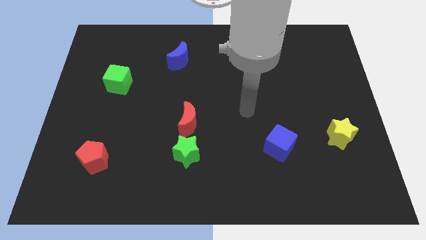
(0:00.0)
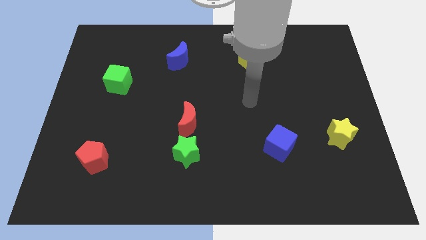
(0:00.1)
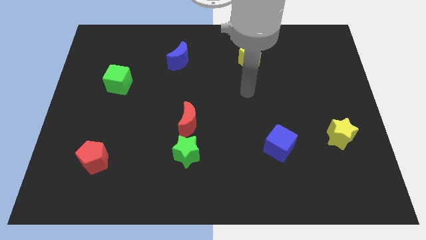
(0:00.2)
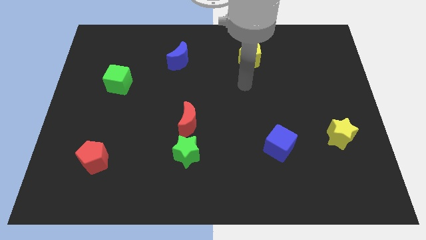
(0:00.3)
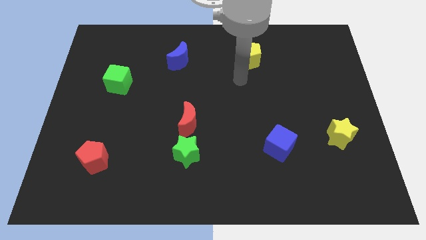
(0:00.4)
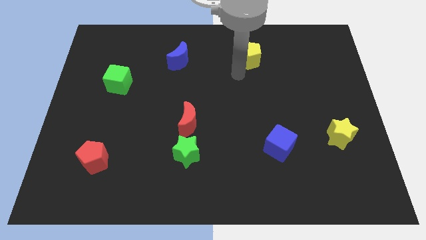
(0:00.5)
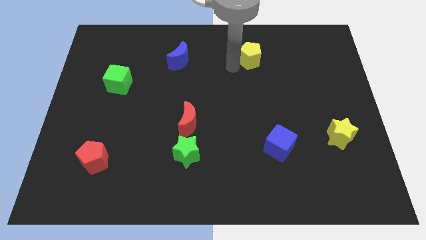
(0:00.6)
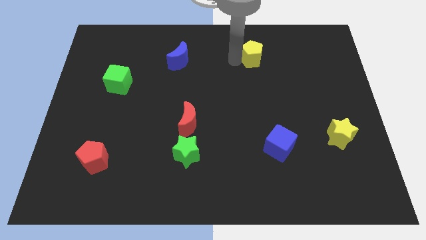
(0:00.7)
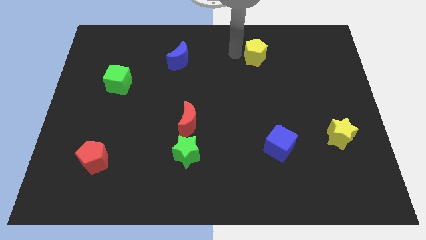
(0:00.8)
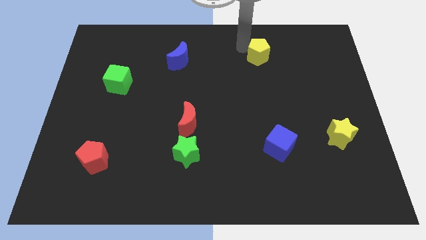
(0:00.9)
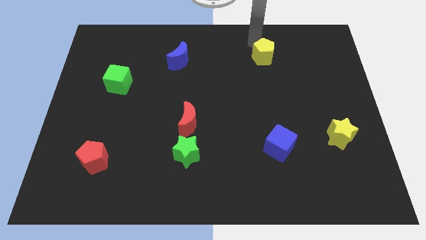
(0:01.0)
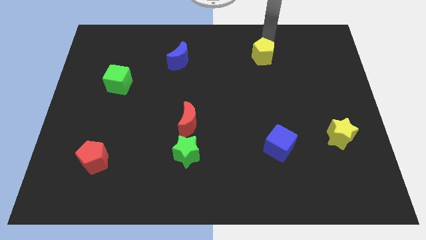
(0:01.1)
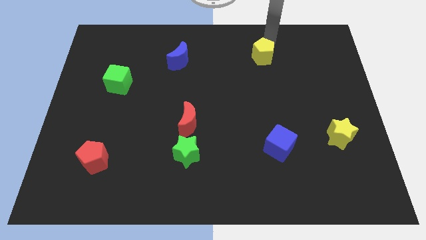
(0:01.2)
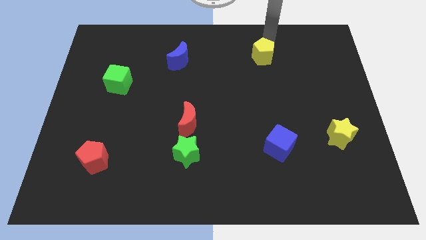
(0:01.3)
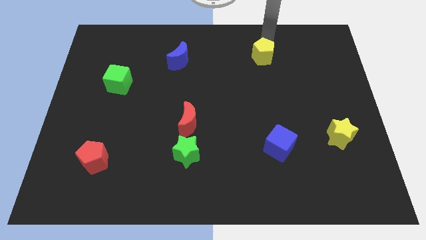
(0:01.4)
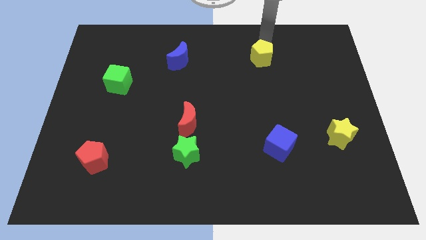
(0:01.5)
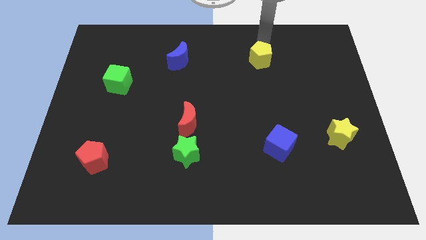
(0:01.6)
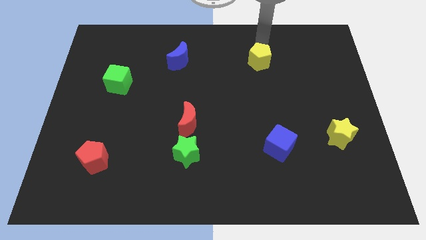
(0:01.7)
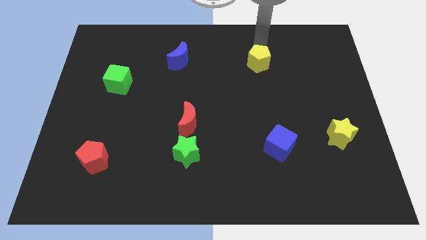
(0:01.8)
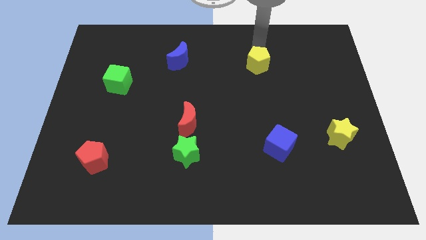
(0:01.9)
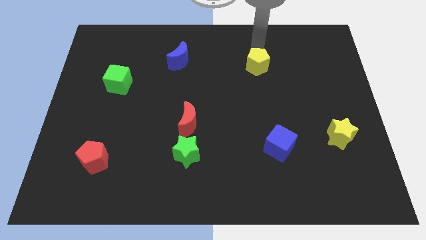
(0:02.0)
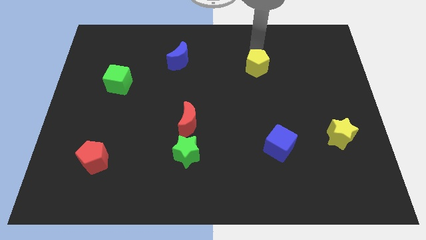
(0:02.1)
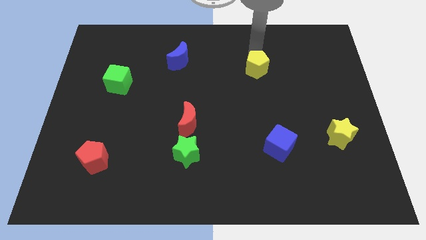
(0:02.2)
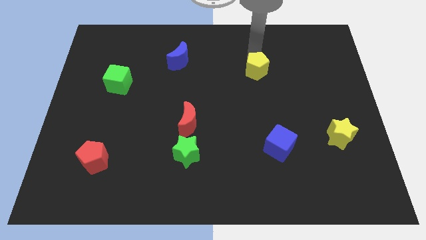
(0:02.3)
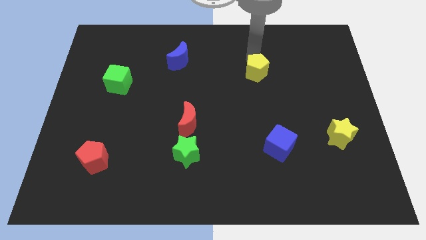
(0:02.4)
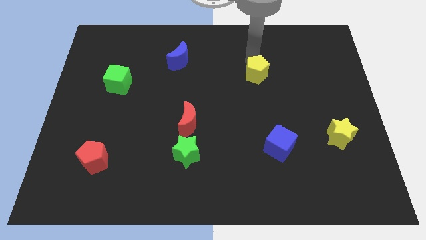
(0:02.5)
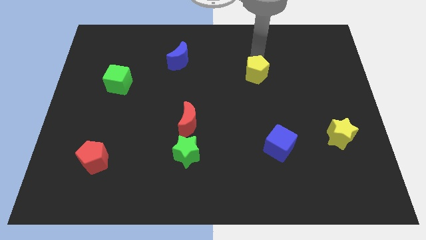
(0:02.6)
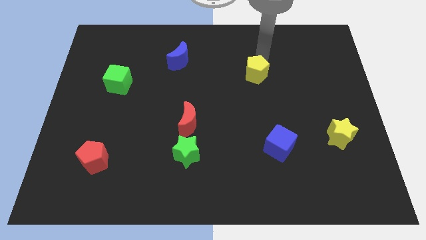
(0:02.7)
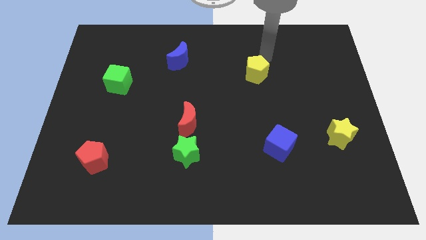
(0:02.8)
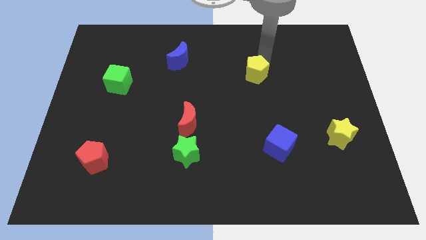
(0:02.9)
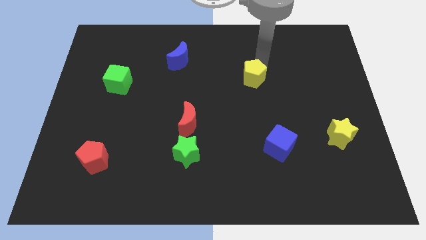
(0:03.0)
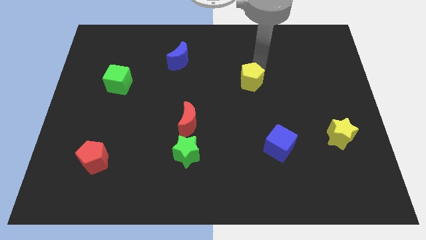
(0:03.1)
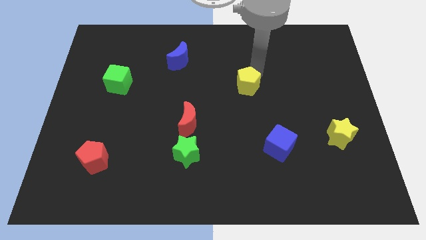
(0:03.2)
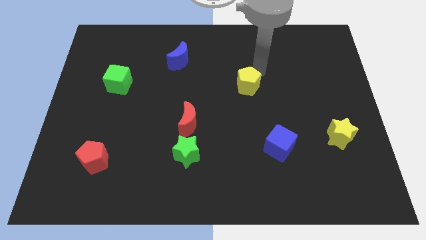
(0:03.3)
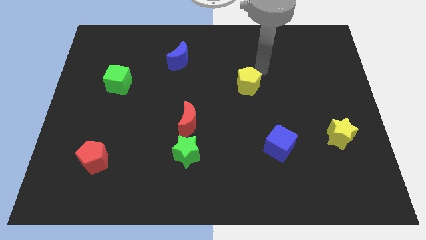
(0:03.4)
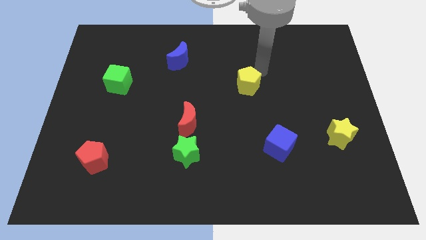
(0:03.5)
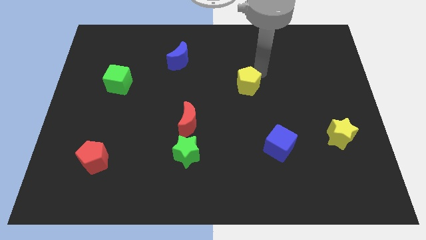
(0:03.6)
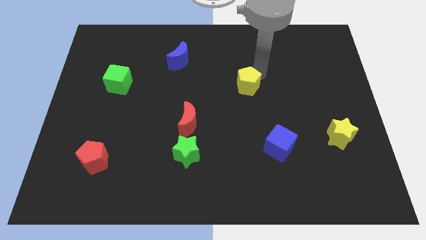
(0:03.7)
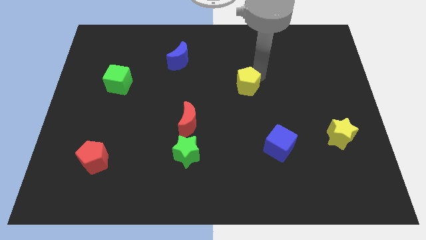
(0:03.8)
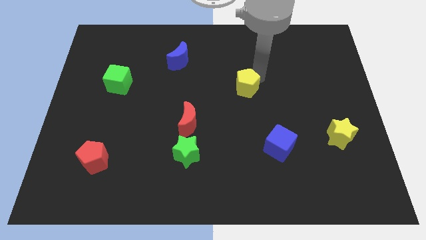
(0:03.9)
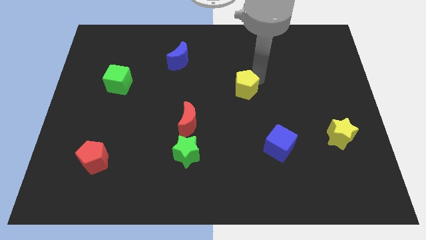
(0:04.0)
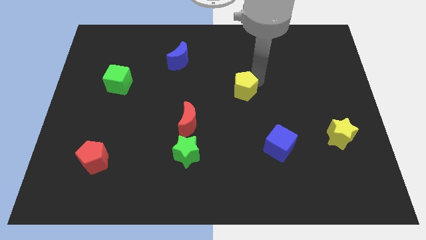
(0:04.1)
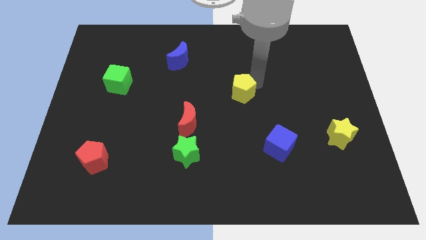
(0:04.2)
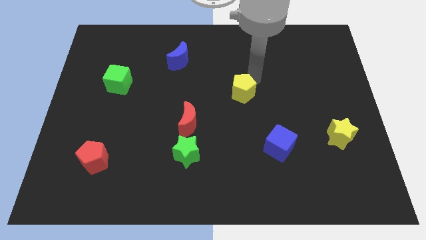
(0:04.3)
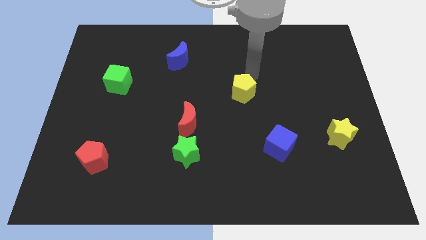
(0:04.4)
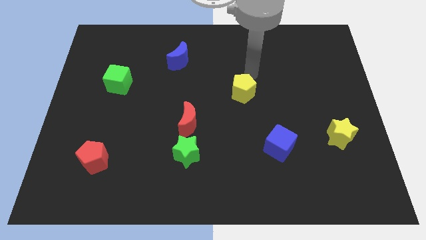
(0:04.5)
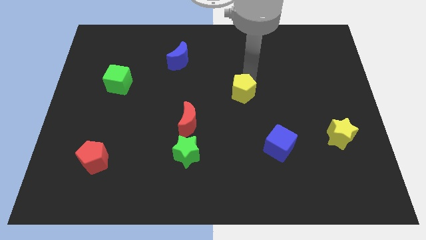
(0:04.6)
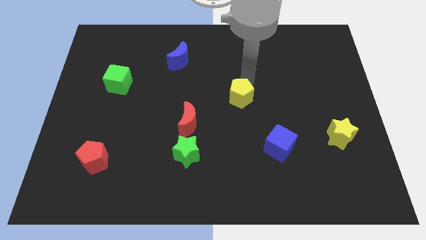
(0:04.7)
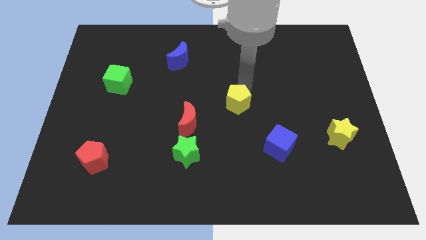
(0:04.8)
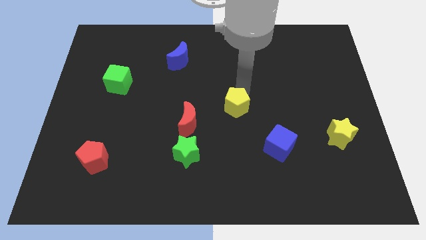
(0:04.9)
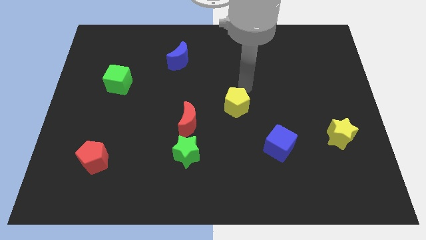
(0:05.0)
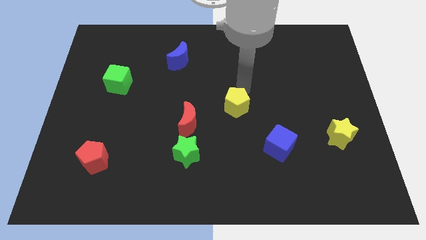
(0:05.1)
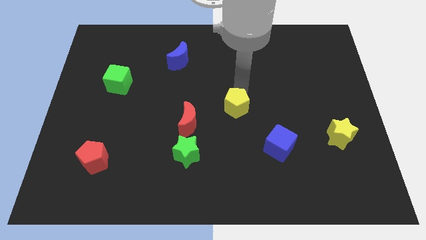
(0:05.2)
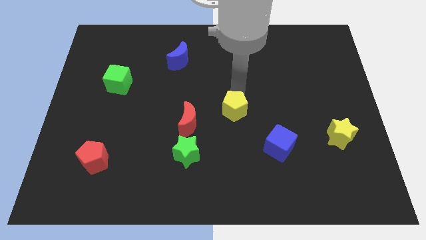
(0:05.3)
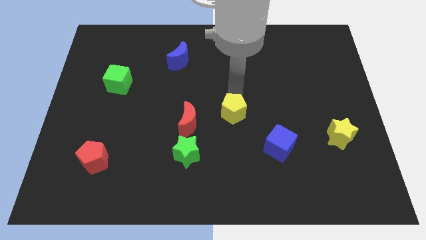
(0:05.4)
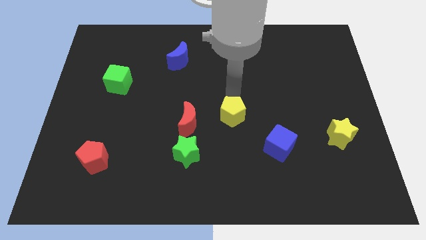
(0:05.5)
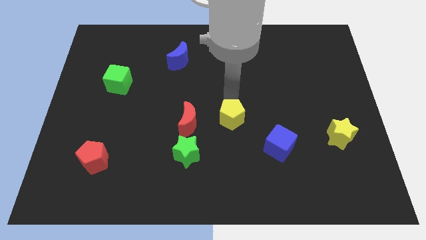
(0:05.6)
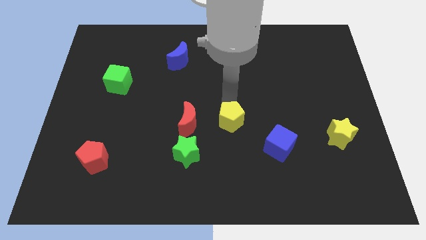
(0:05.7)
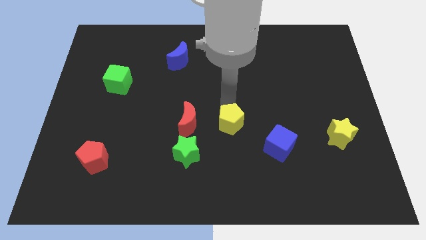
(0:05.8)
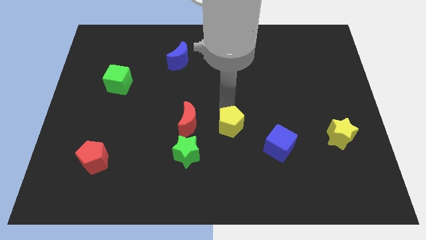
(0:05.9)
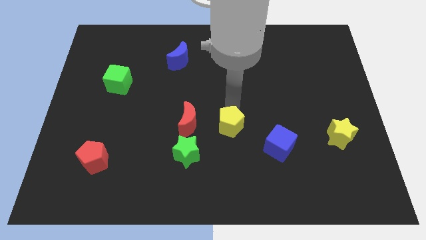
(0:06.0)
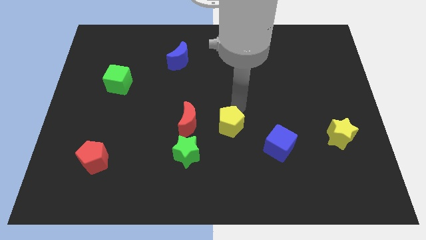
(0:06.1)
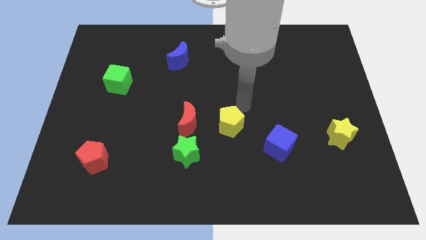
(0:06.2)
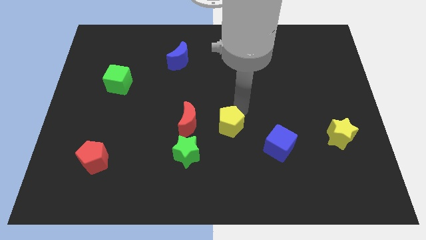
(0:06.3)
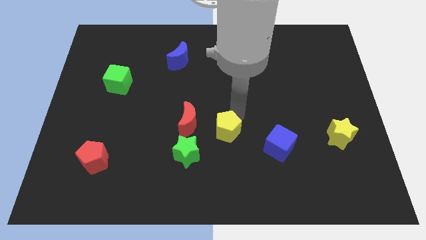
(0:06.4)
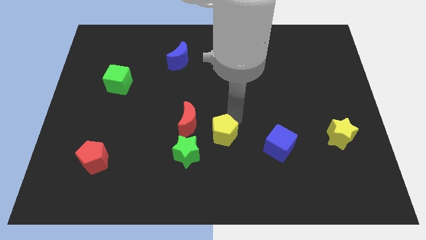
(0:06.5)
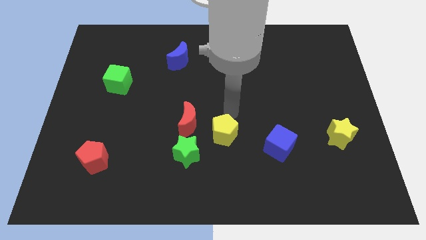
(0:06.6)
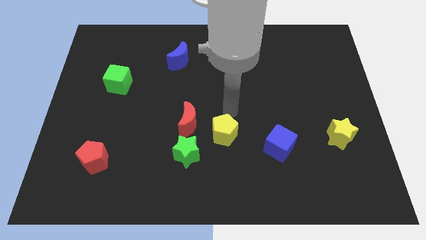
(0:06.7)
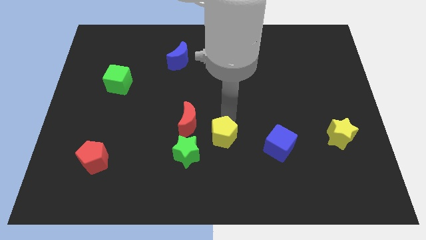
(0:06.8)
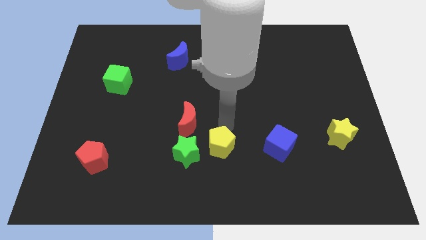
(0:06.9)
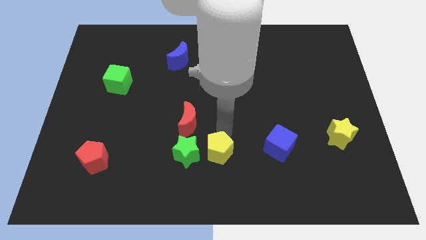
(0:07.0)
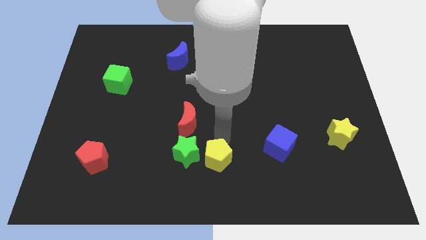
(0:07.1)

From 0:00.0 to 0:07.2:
move the yellow pentagon diagonally down and to the right of the green star

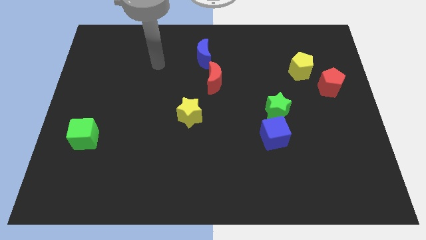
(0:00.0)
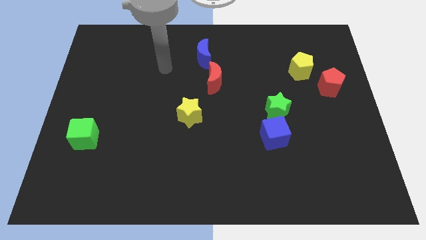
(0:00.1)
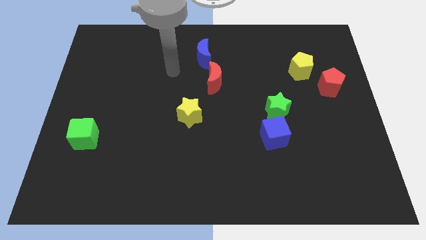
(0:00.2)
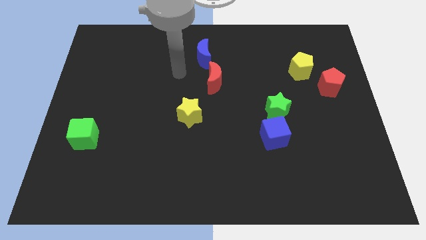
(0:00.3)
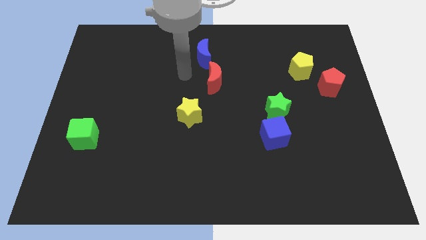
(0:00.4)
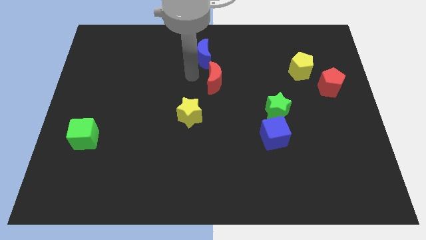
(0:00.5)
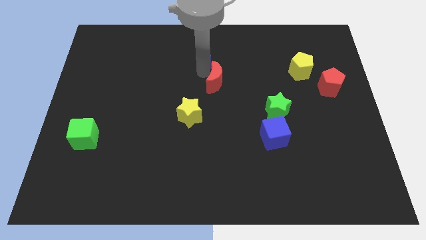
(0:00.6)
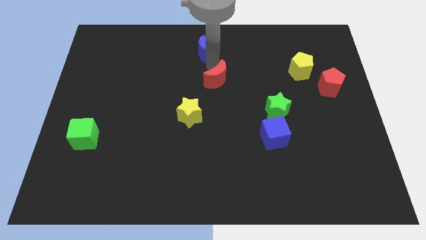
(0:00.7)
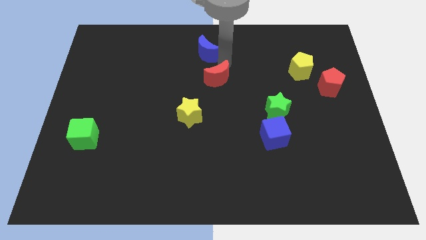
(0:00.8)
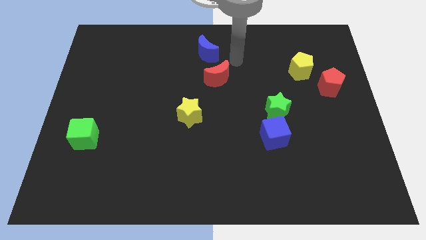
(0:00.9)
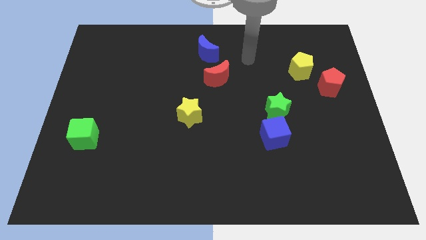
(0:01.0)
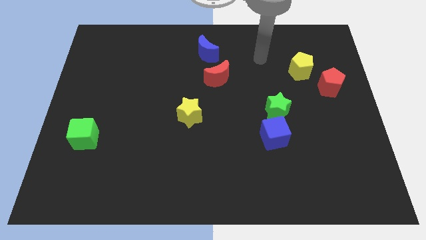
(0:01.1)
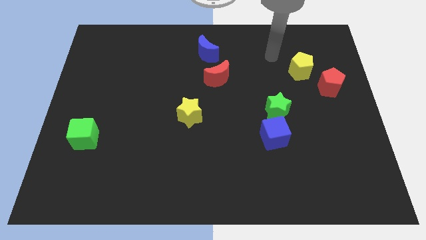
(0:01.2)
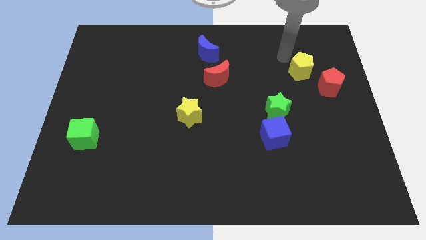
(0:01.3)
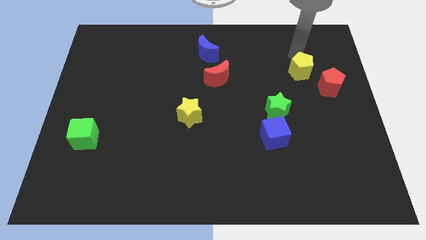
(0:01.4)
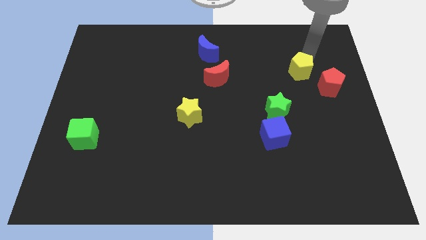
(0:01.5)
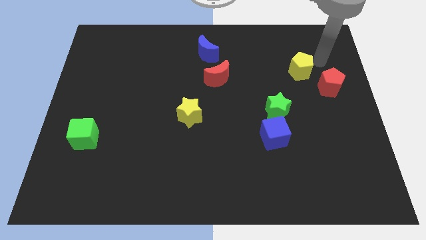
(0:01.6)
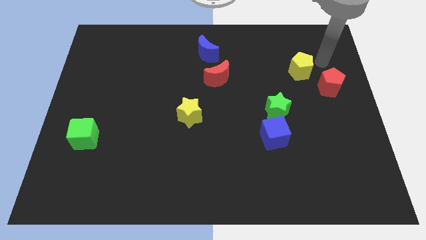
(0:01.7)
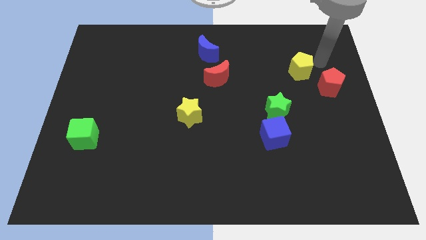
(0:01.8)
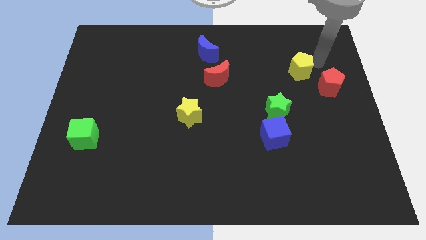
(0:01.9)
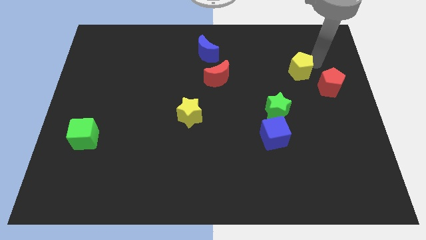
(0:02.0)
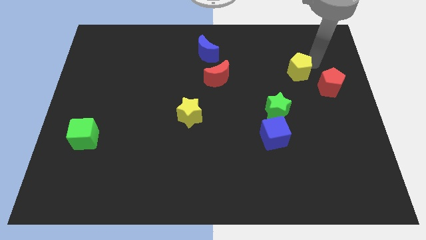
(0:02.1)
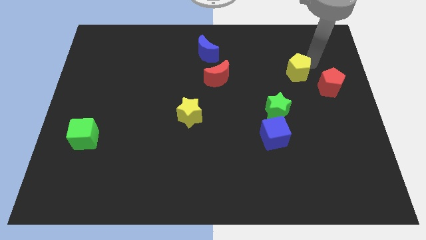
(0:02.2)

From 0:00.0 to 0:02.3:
push the yellow pentagon left of the red pentagon
